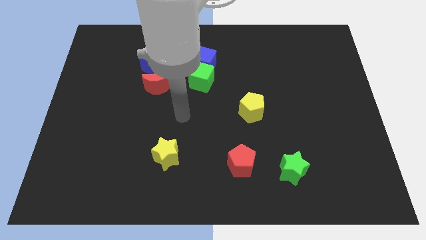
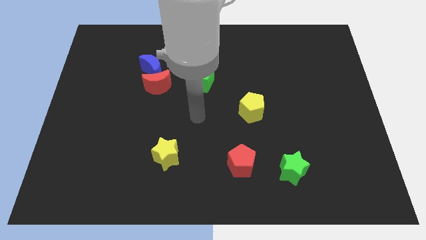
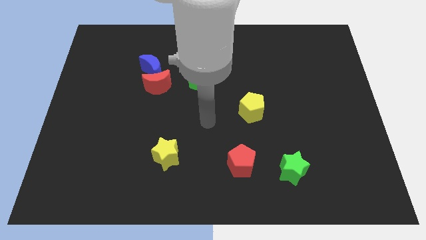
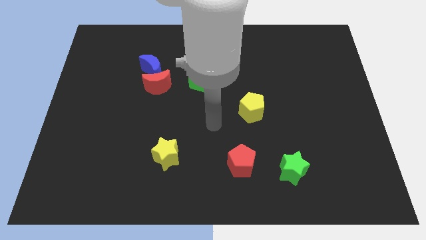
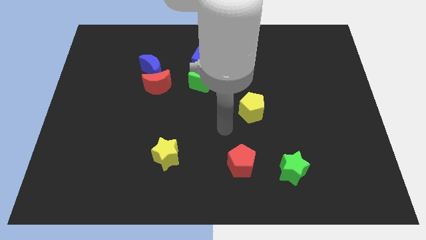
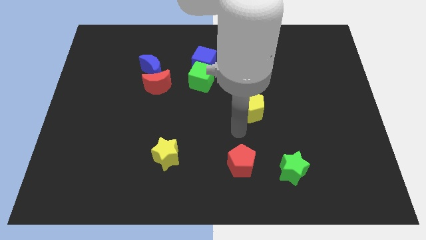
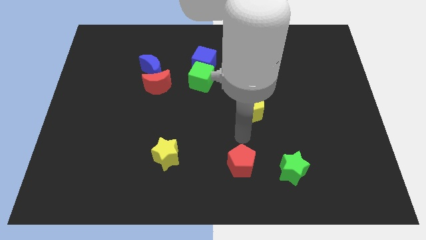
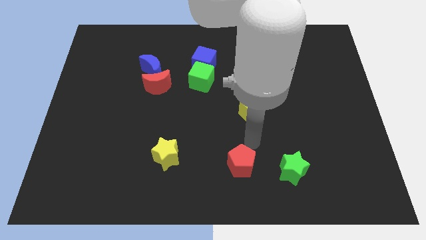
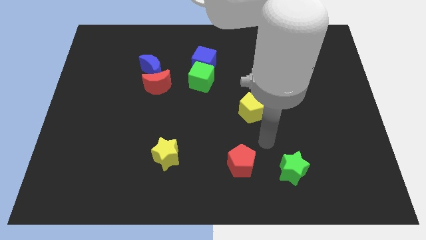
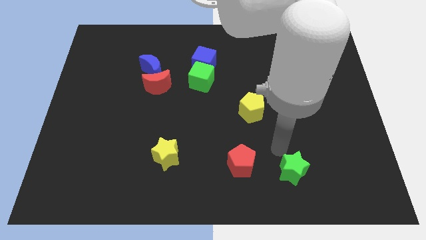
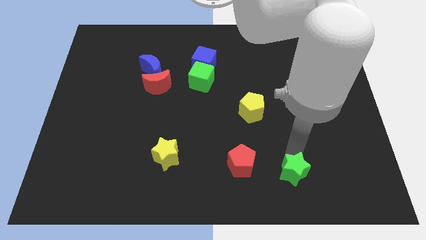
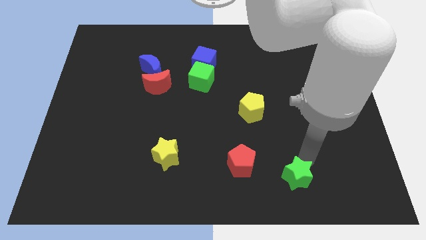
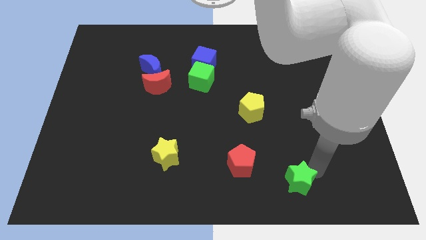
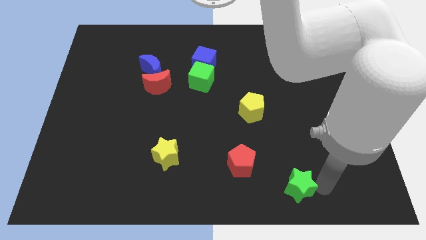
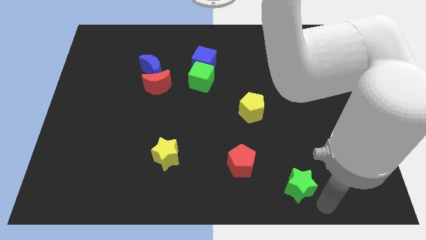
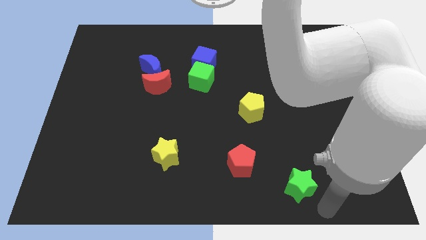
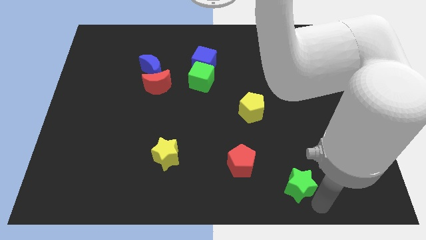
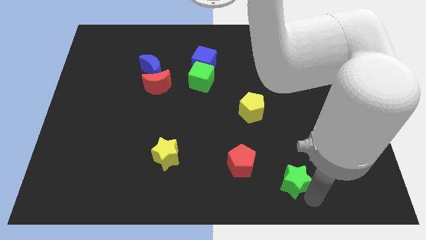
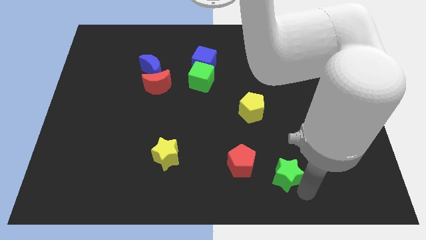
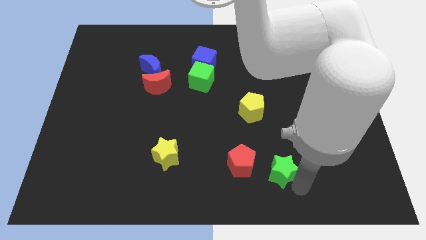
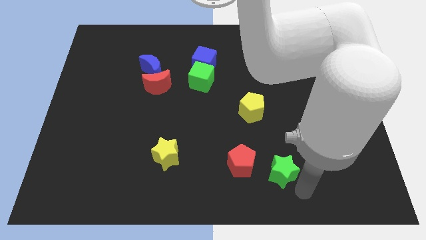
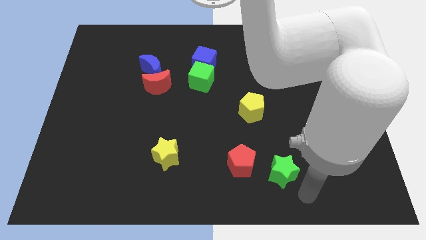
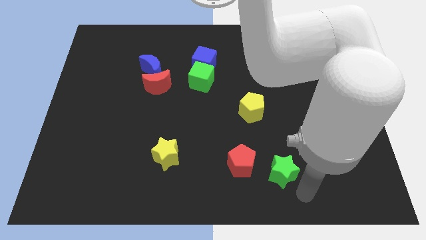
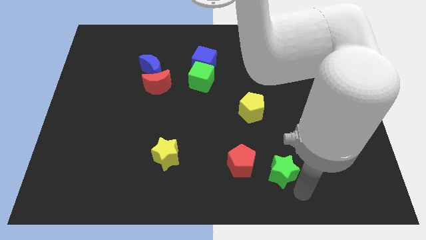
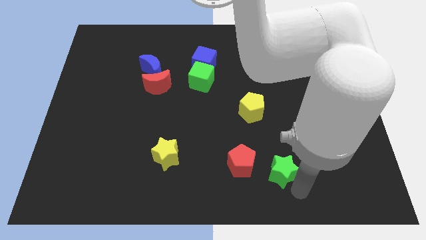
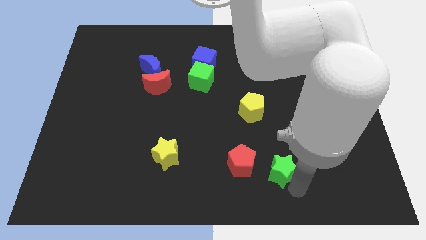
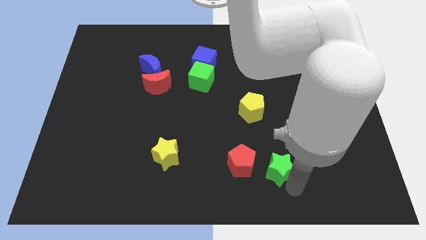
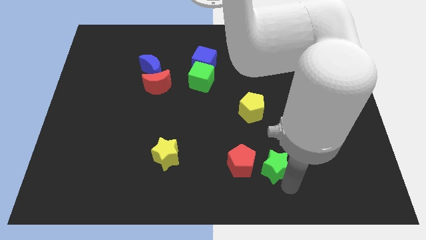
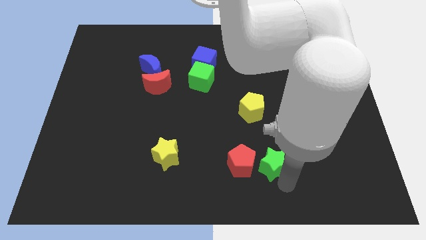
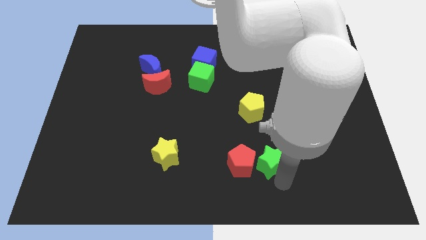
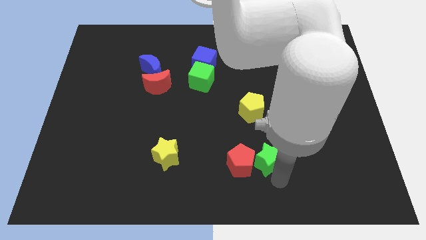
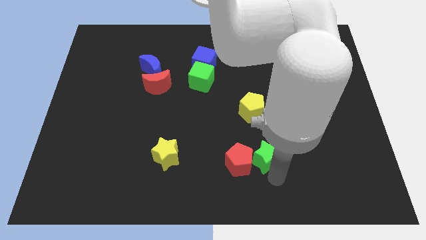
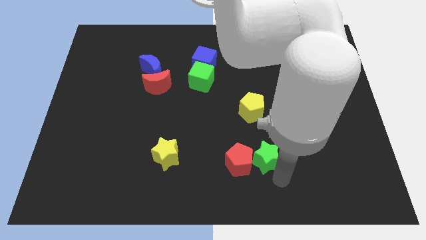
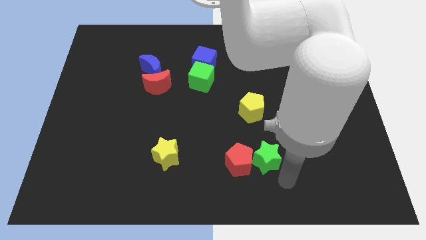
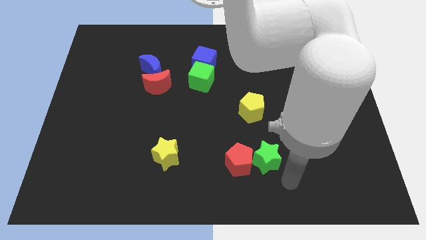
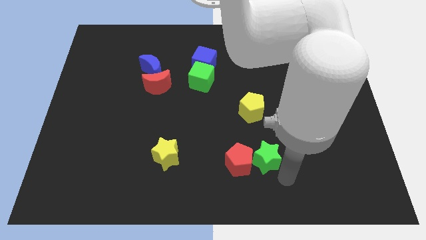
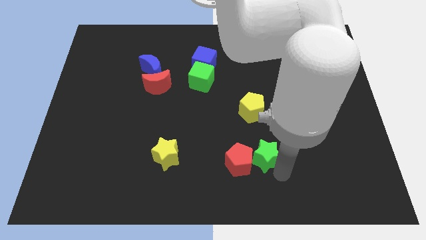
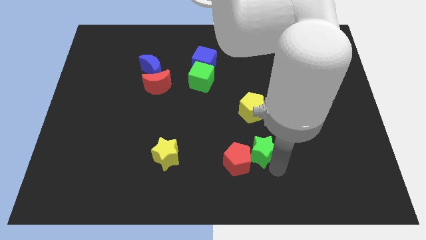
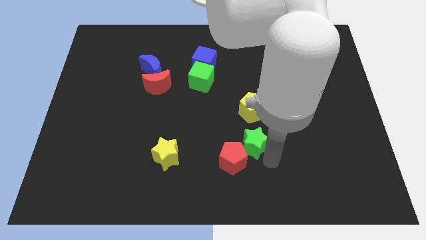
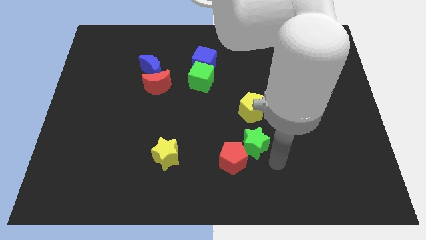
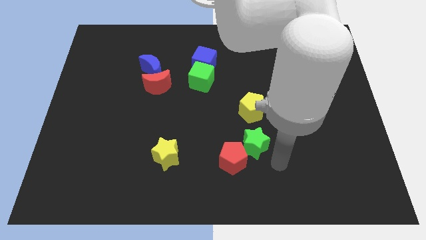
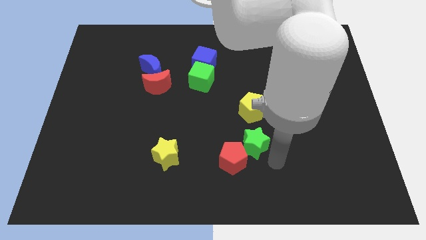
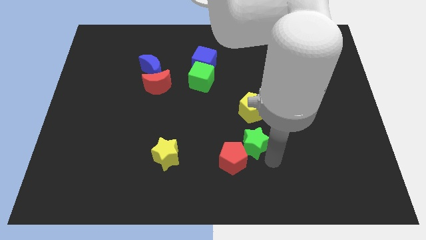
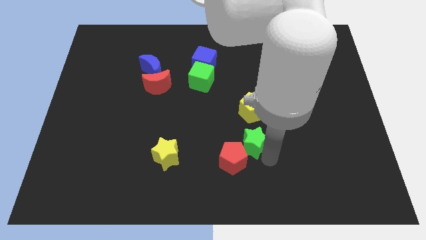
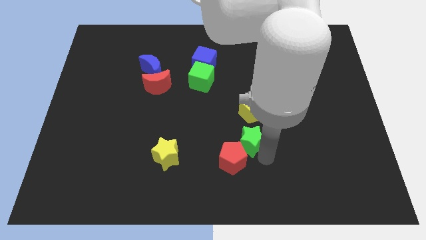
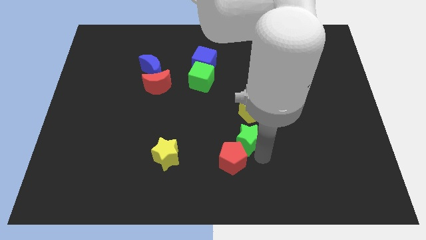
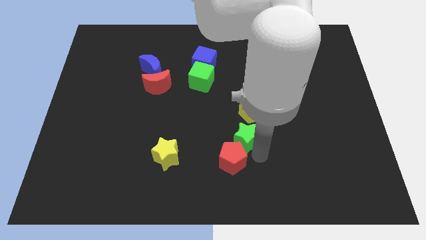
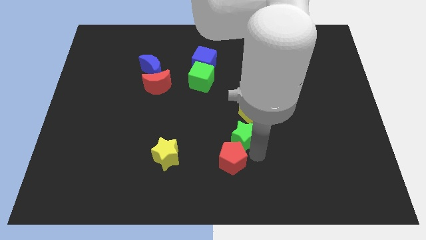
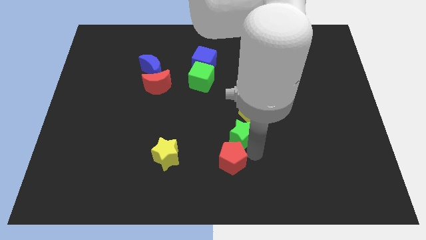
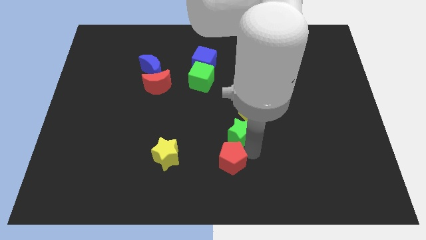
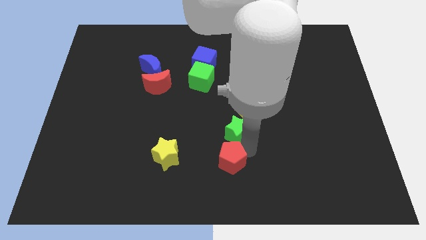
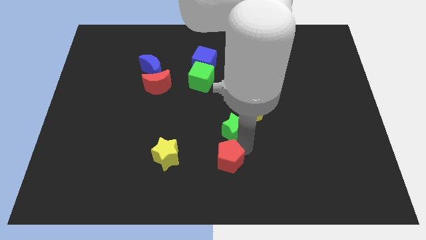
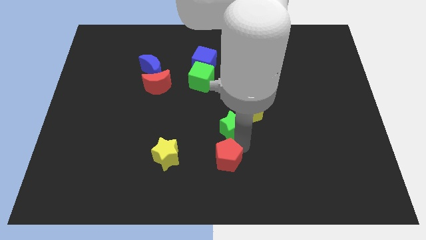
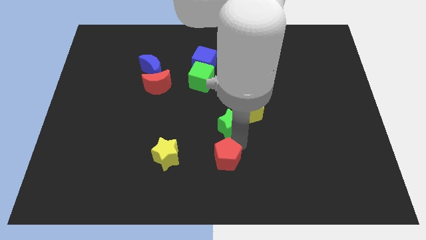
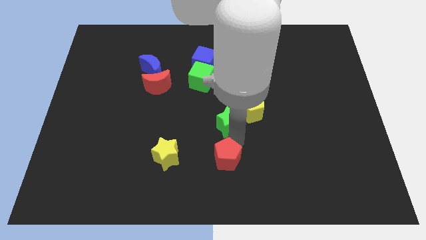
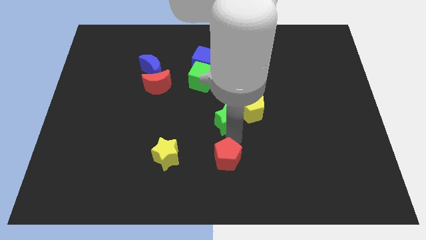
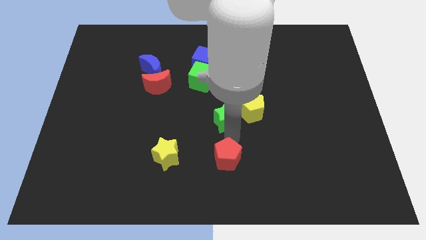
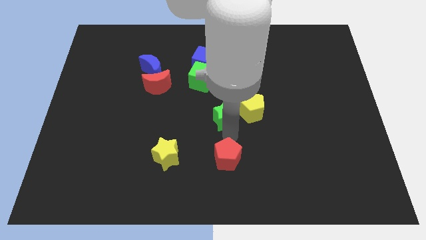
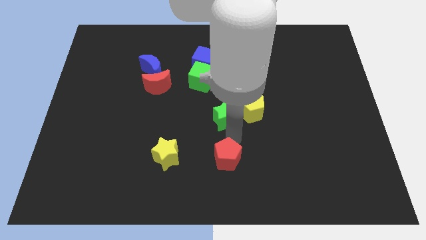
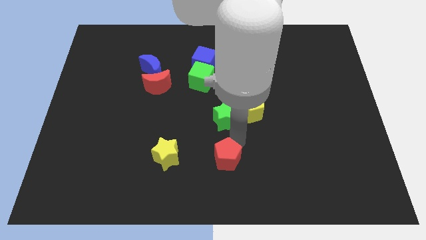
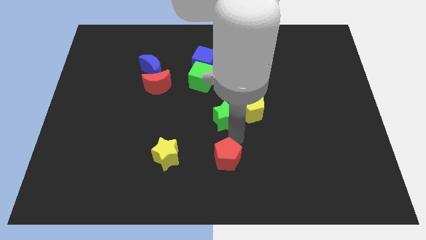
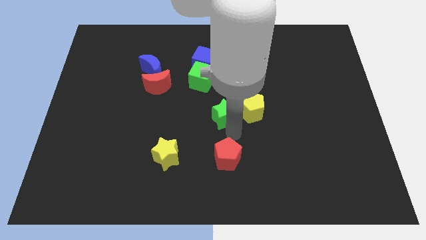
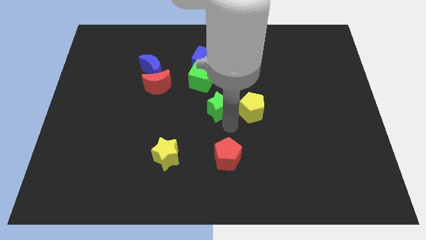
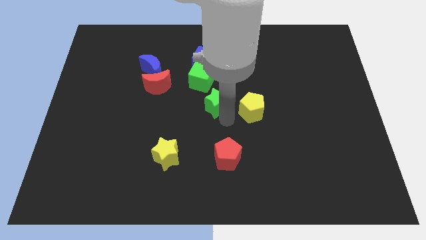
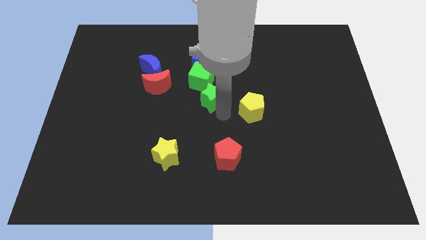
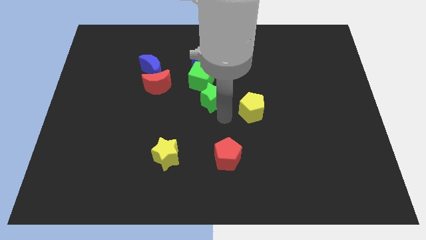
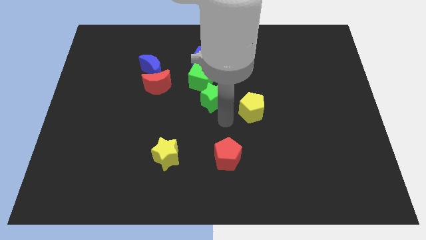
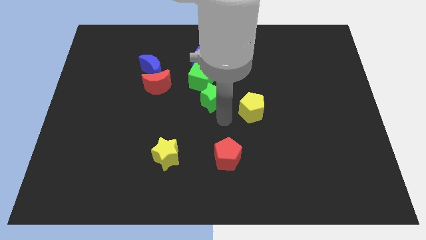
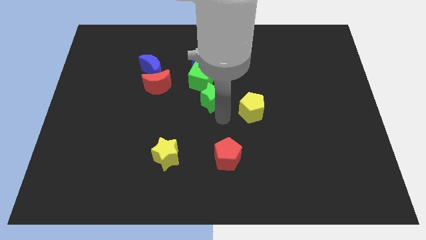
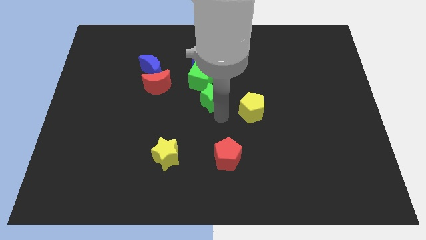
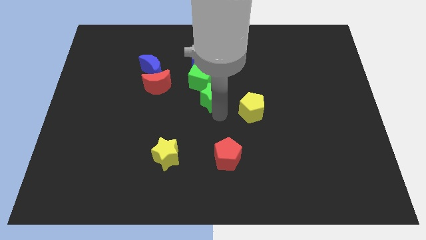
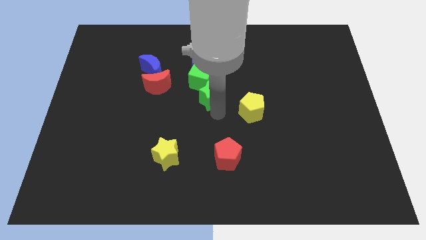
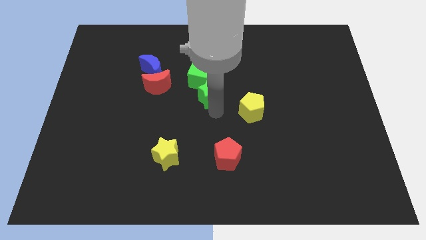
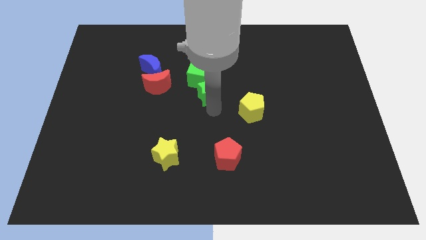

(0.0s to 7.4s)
slide the green star close to the green cube
